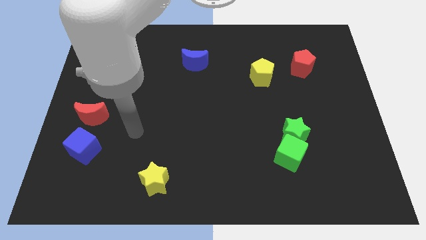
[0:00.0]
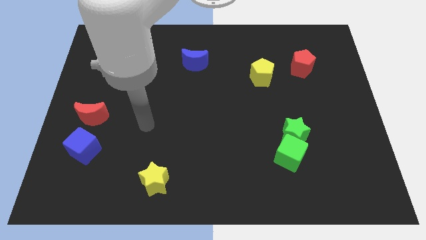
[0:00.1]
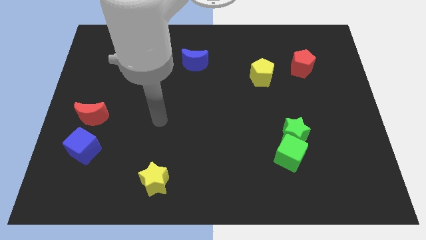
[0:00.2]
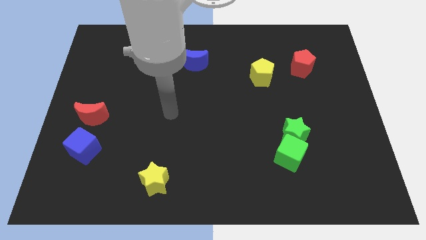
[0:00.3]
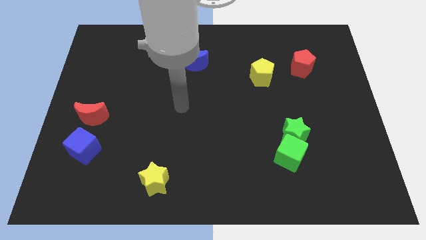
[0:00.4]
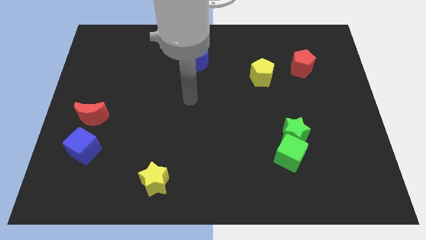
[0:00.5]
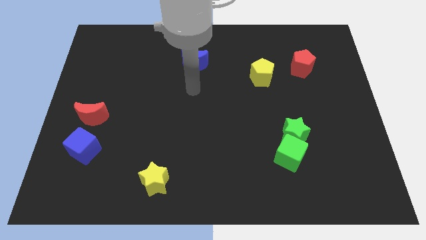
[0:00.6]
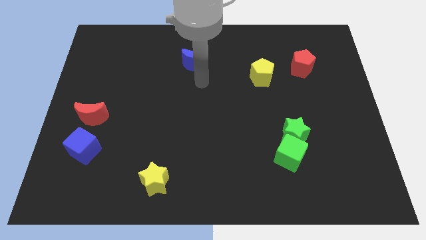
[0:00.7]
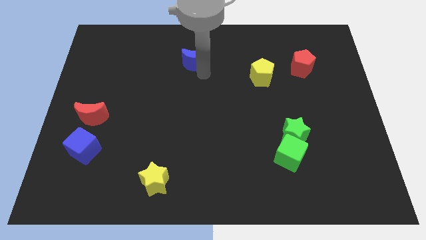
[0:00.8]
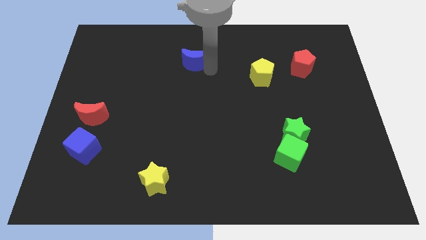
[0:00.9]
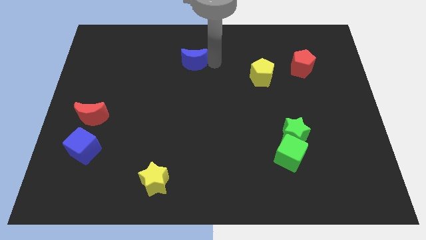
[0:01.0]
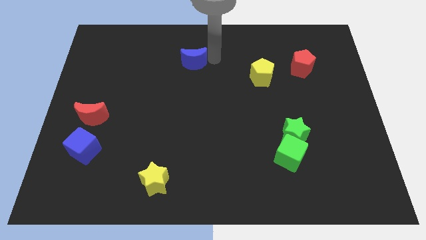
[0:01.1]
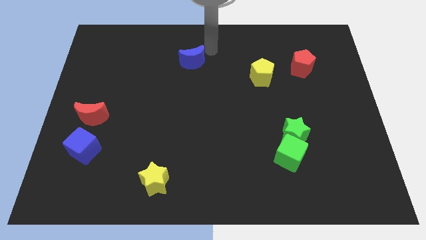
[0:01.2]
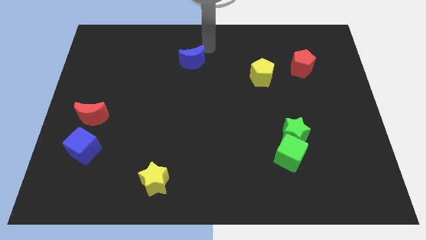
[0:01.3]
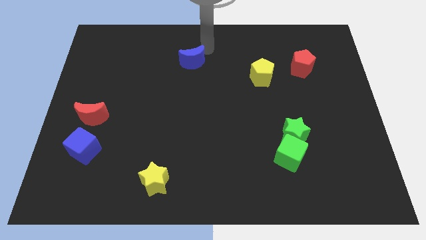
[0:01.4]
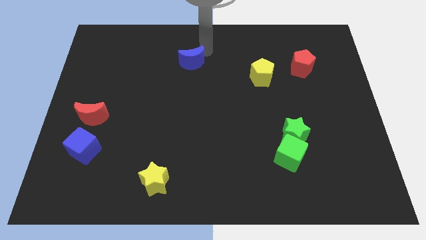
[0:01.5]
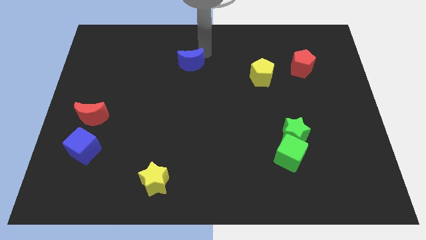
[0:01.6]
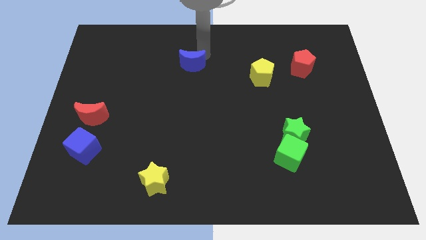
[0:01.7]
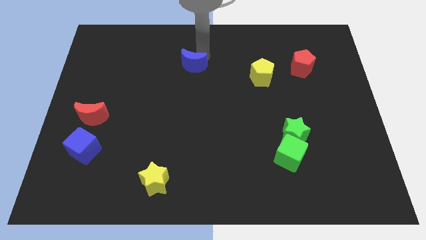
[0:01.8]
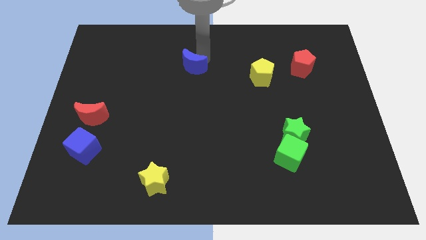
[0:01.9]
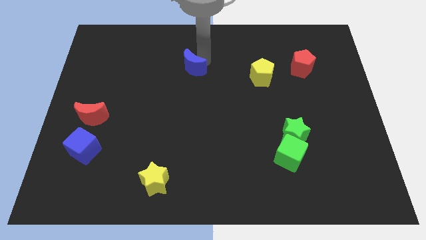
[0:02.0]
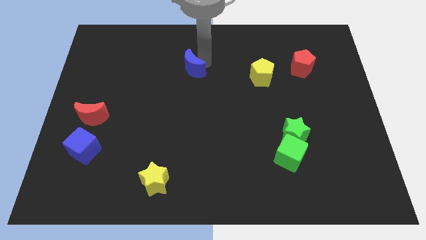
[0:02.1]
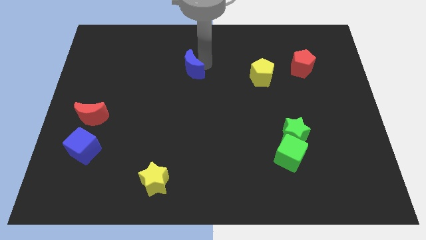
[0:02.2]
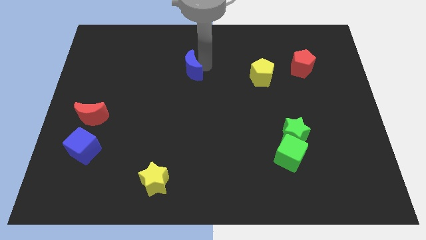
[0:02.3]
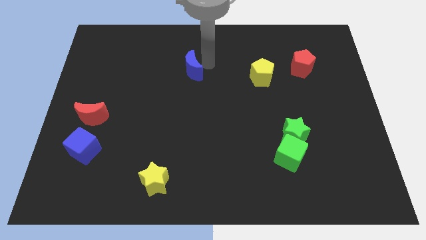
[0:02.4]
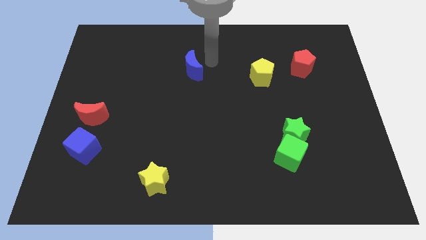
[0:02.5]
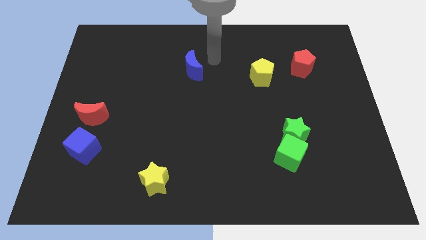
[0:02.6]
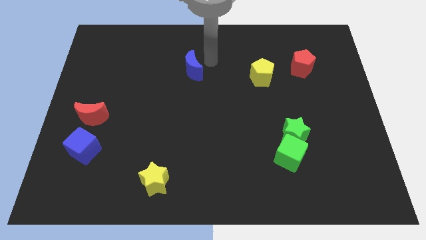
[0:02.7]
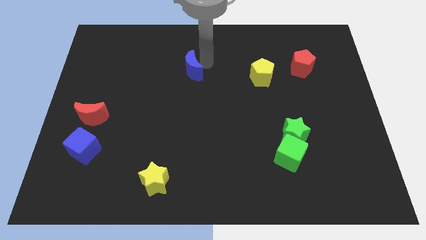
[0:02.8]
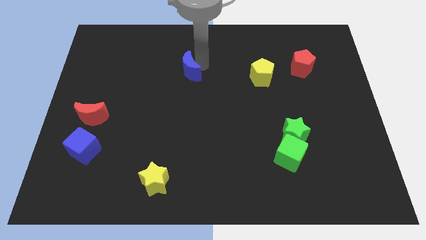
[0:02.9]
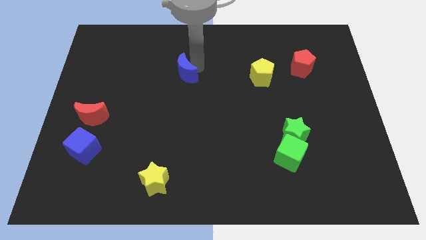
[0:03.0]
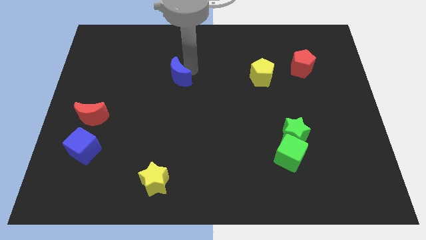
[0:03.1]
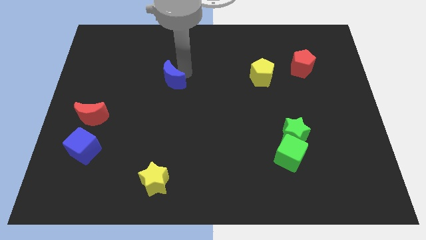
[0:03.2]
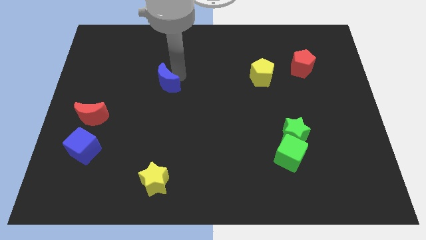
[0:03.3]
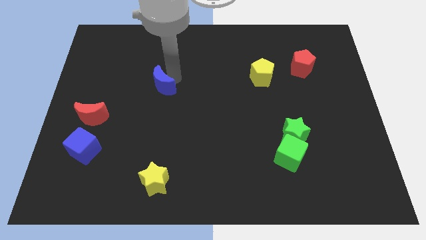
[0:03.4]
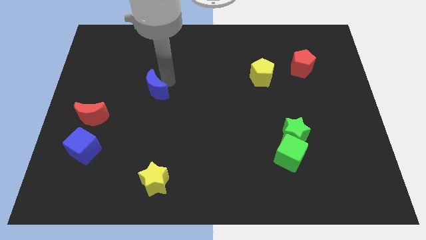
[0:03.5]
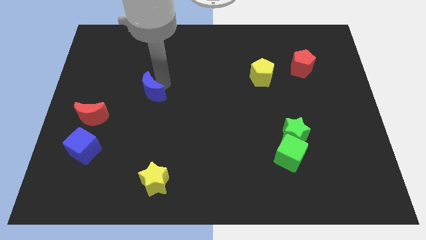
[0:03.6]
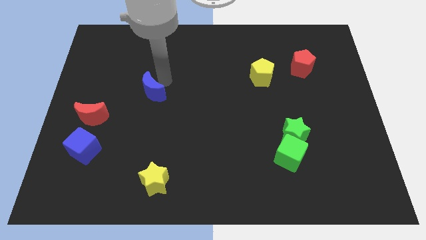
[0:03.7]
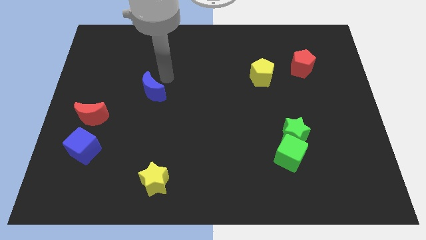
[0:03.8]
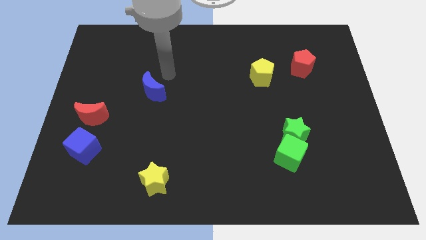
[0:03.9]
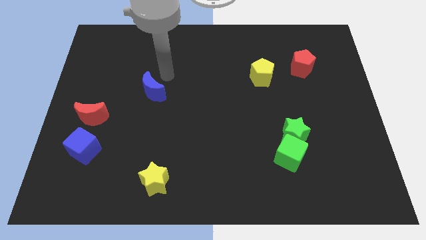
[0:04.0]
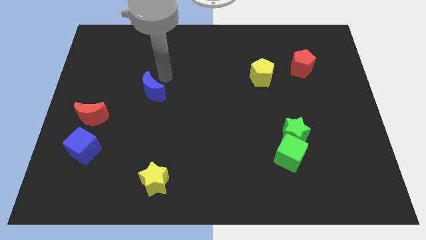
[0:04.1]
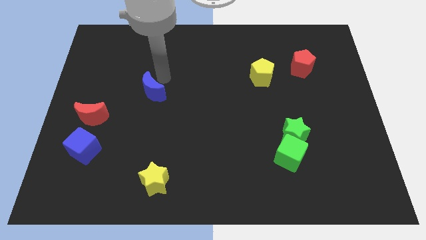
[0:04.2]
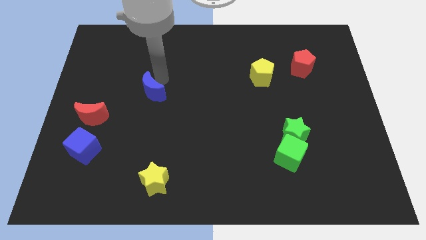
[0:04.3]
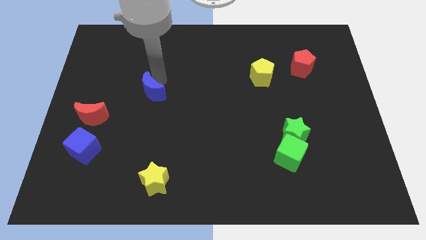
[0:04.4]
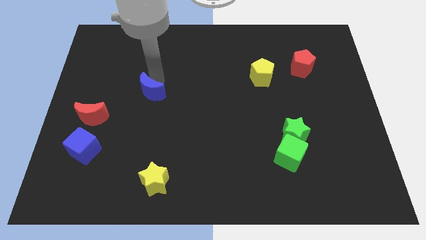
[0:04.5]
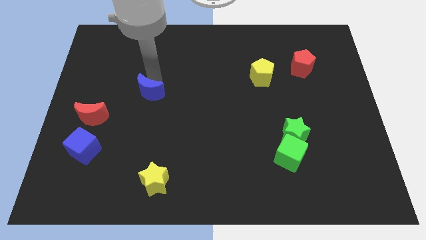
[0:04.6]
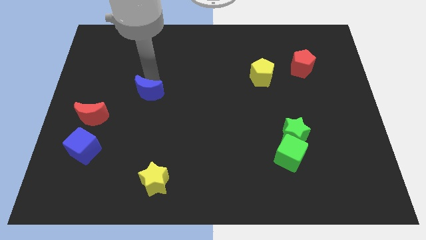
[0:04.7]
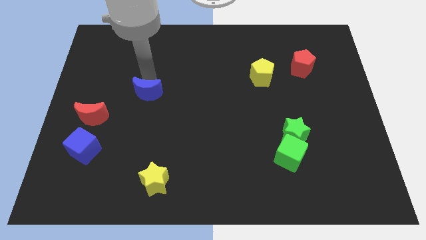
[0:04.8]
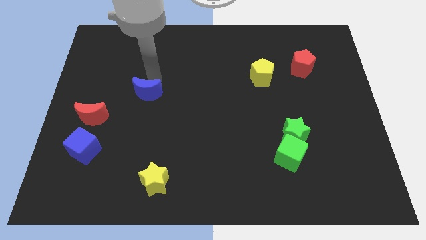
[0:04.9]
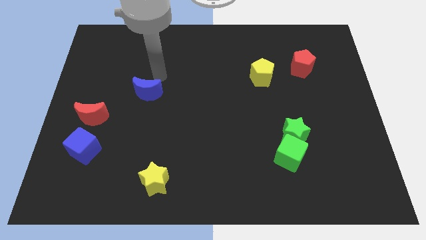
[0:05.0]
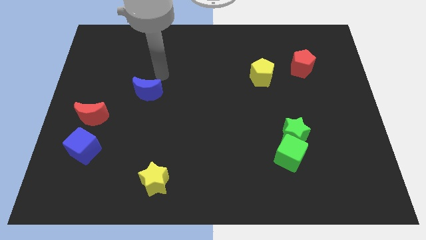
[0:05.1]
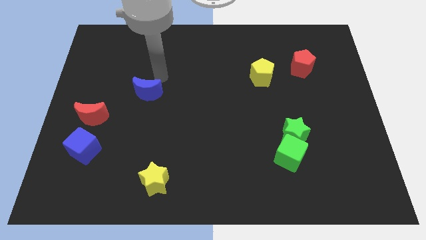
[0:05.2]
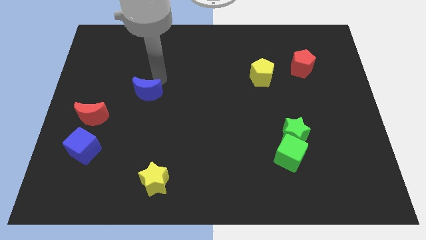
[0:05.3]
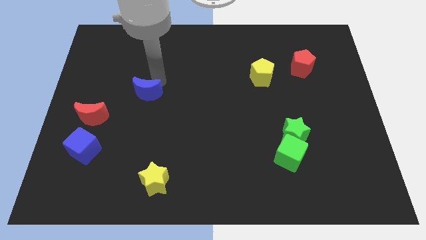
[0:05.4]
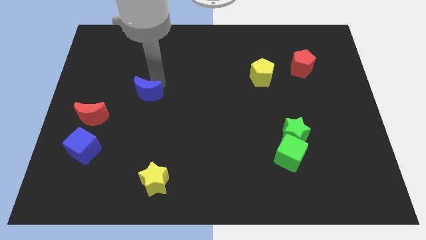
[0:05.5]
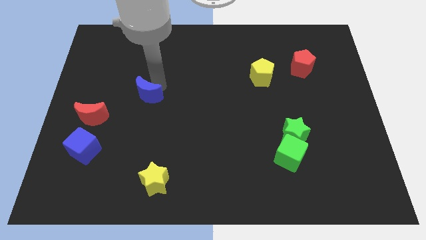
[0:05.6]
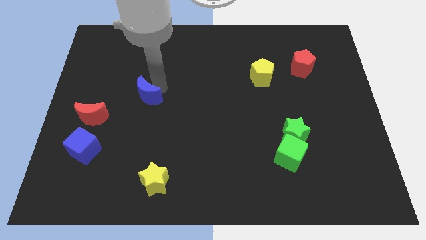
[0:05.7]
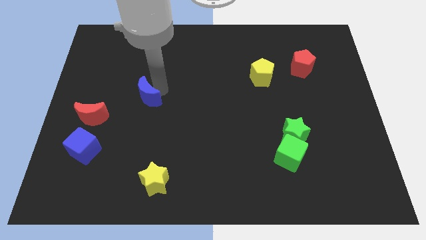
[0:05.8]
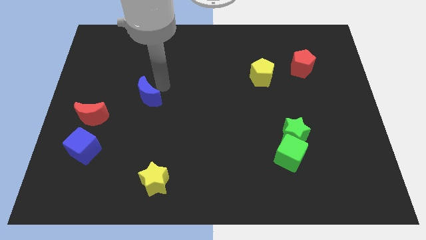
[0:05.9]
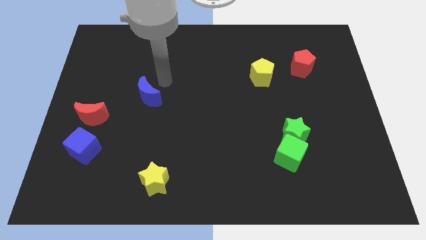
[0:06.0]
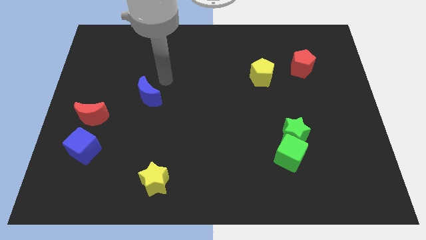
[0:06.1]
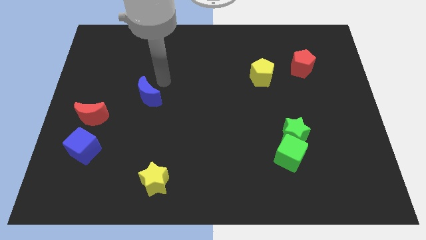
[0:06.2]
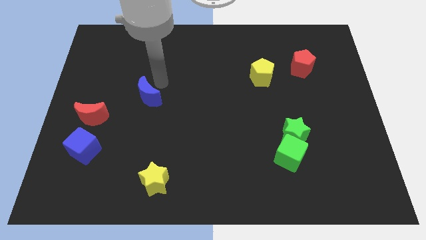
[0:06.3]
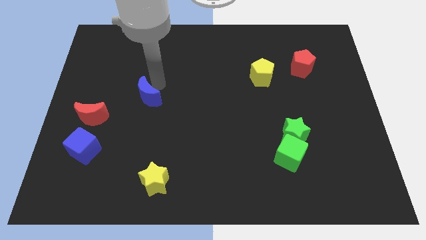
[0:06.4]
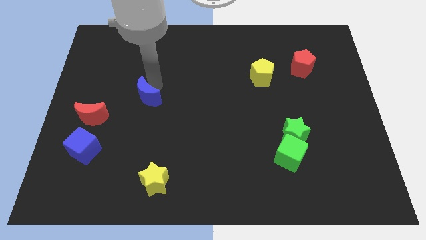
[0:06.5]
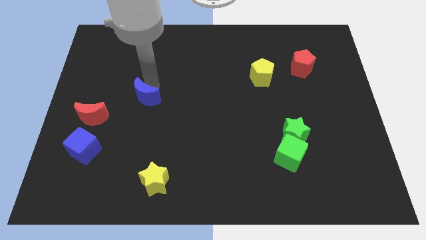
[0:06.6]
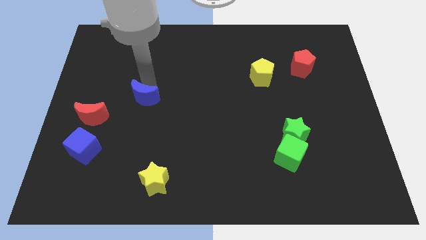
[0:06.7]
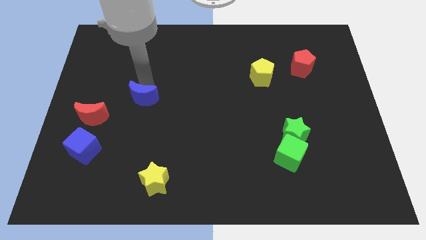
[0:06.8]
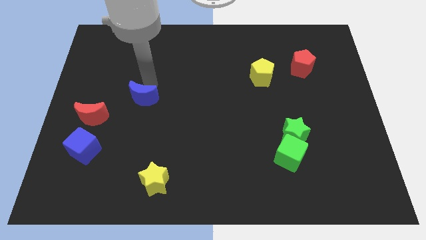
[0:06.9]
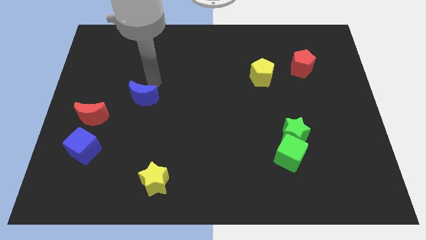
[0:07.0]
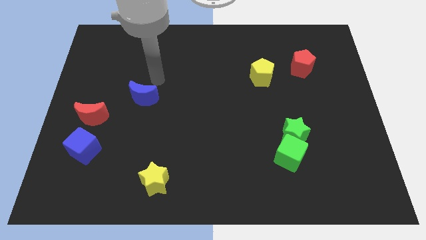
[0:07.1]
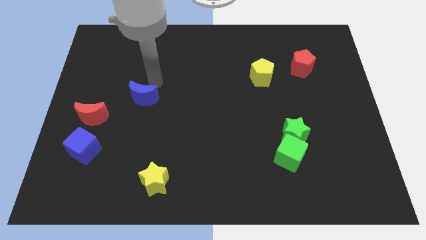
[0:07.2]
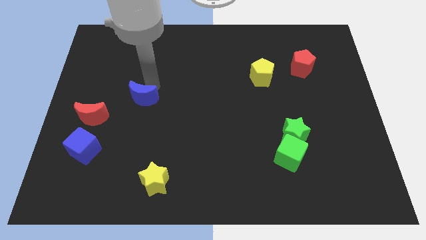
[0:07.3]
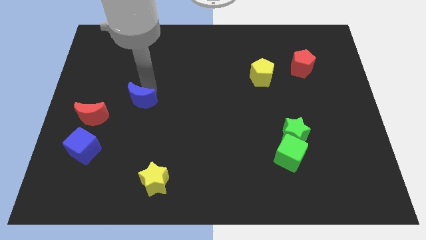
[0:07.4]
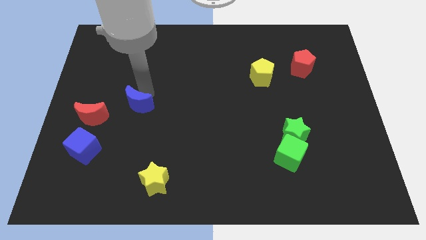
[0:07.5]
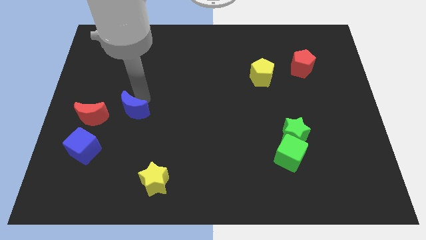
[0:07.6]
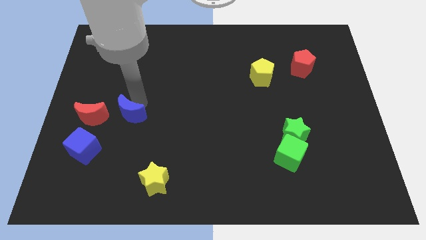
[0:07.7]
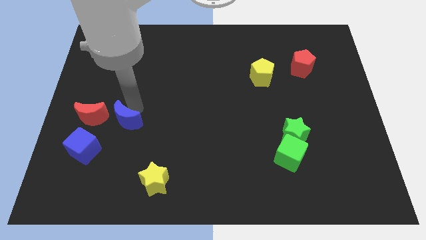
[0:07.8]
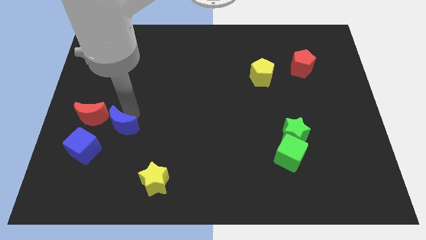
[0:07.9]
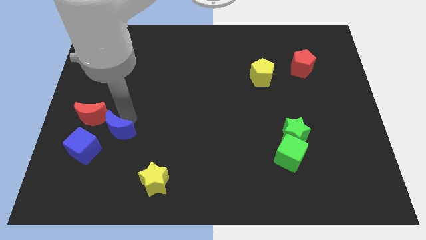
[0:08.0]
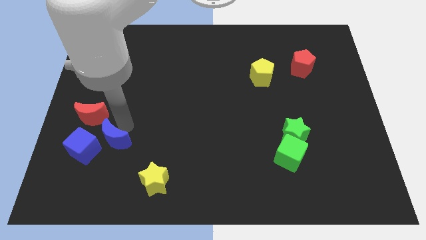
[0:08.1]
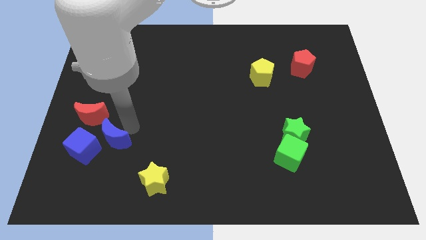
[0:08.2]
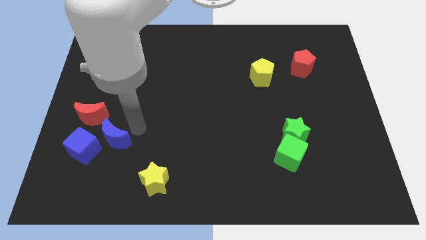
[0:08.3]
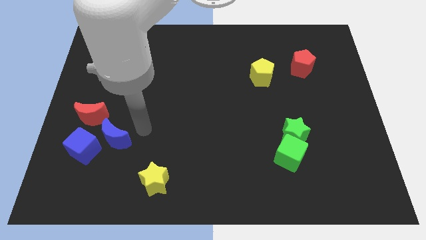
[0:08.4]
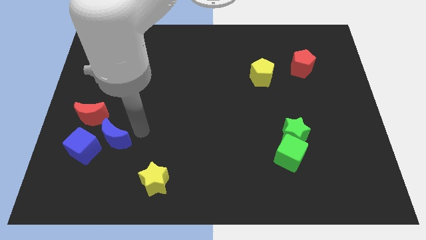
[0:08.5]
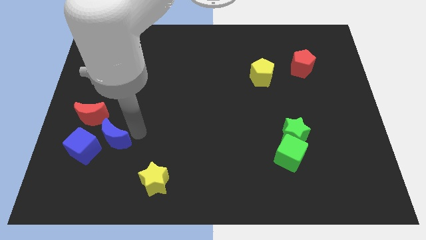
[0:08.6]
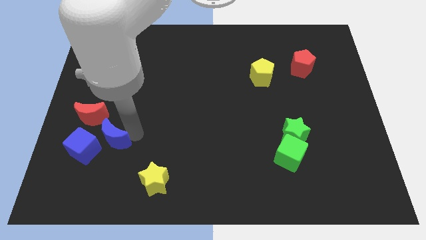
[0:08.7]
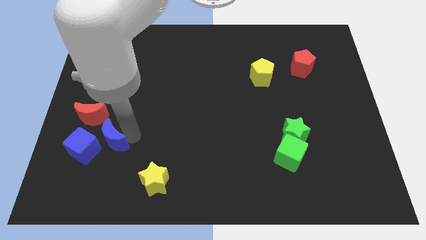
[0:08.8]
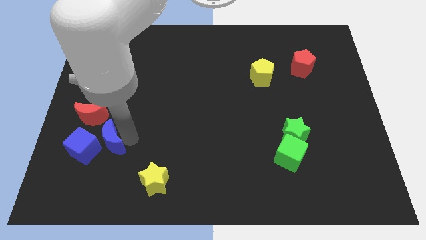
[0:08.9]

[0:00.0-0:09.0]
slide the blue moon next to the blue cube
